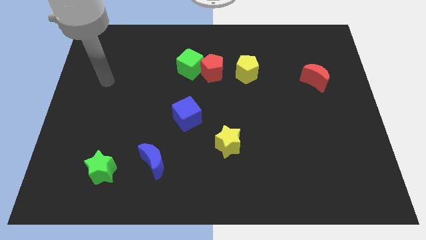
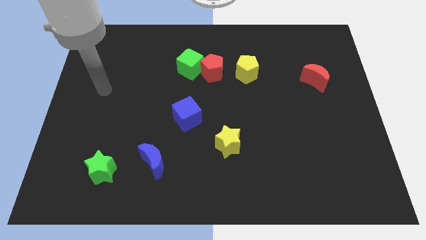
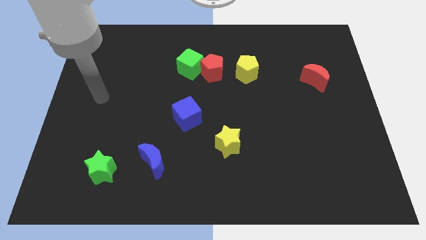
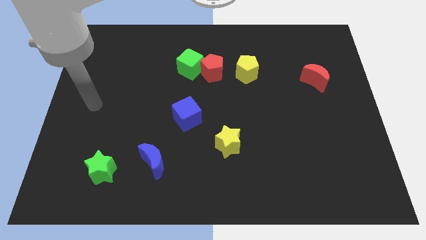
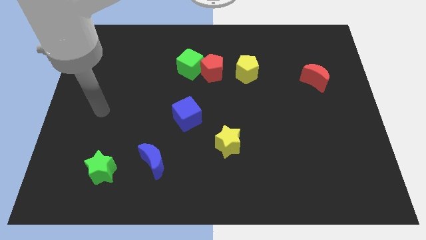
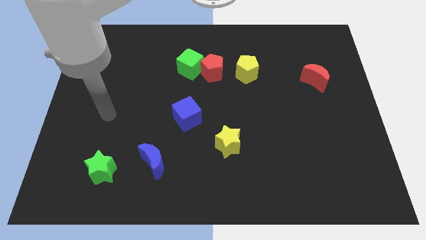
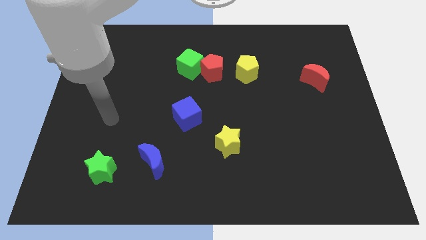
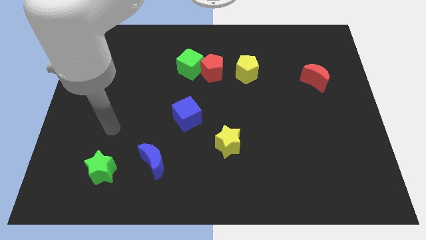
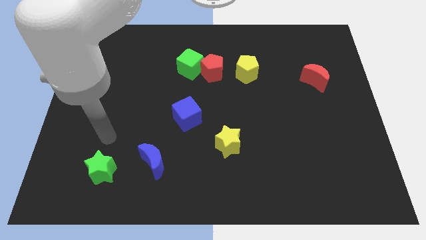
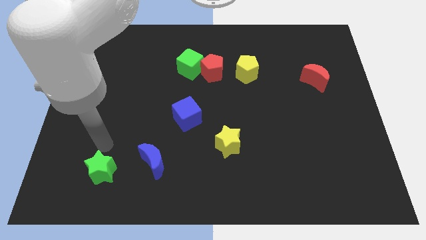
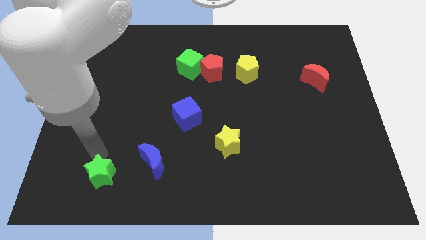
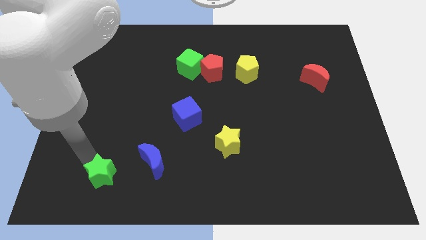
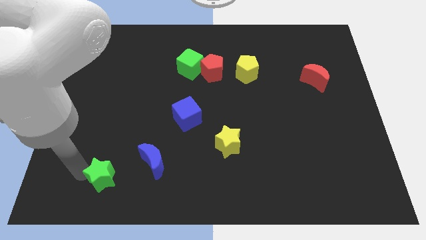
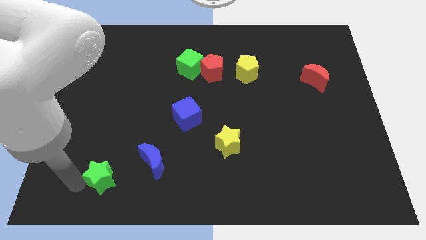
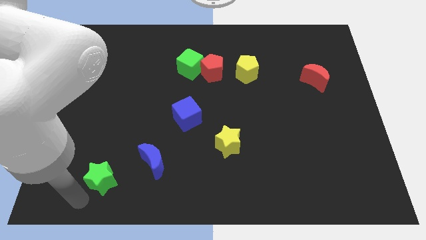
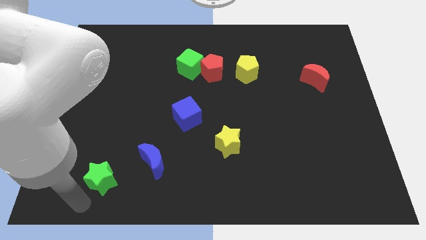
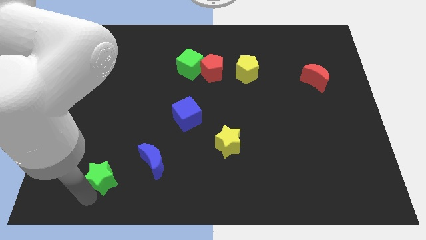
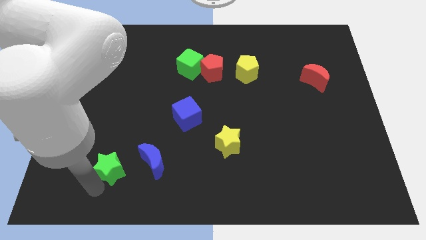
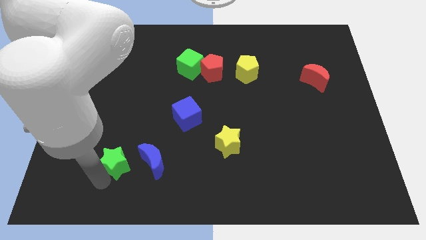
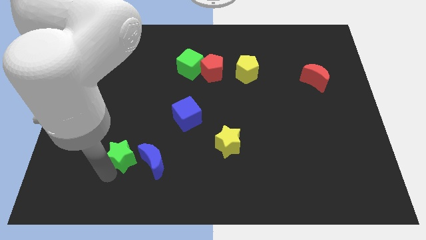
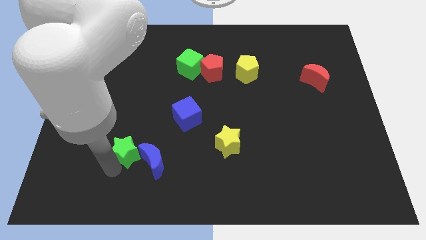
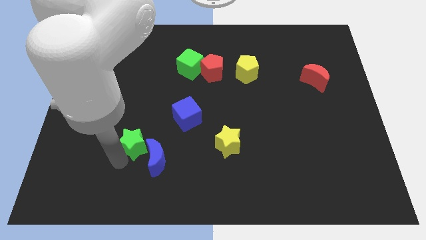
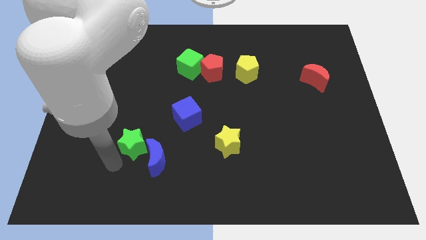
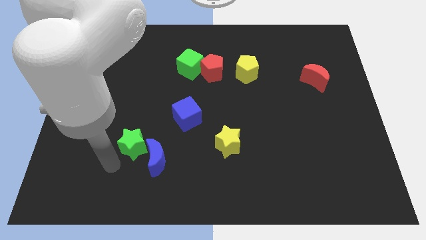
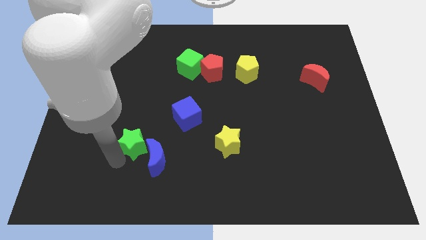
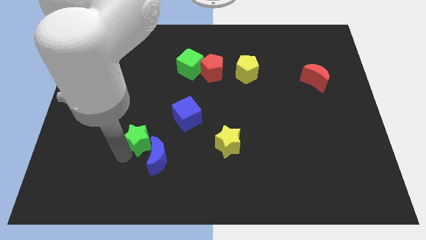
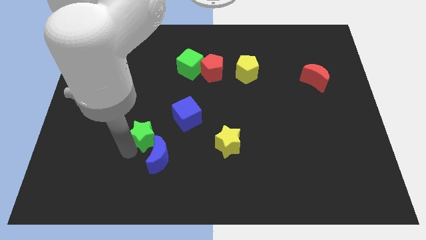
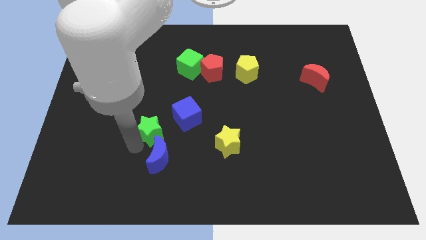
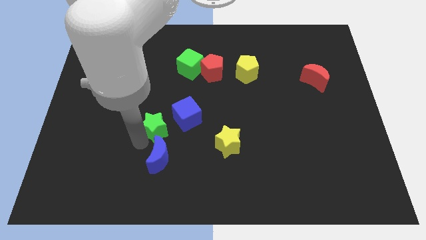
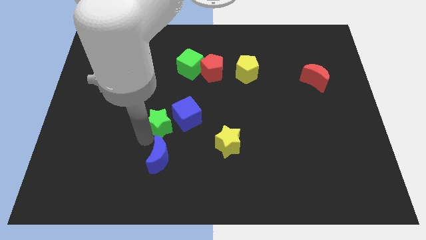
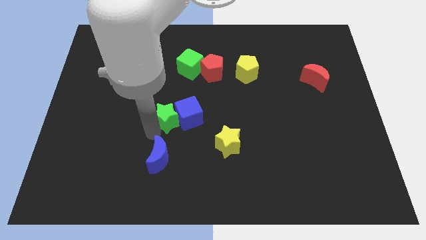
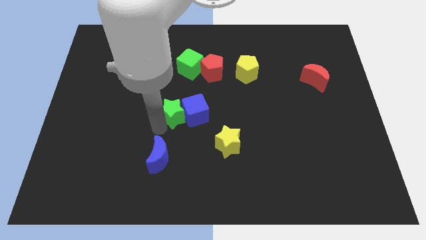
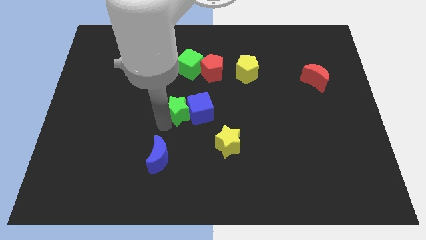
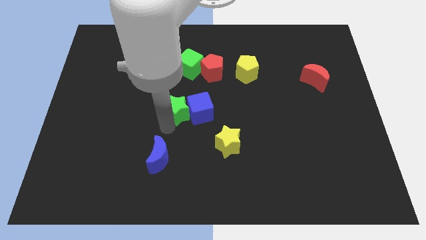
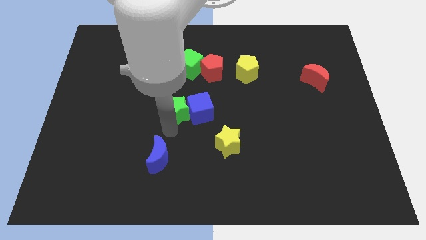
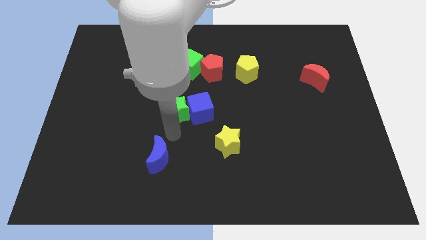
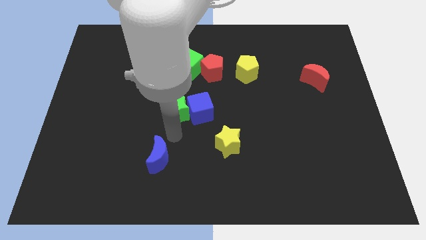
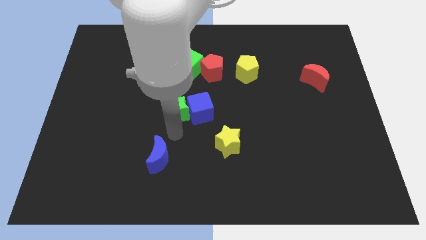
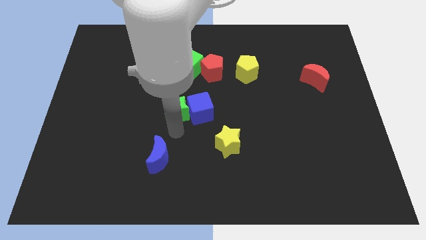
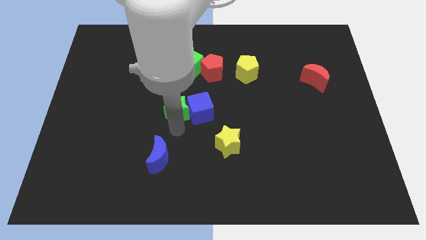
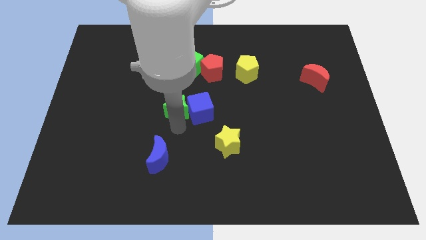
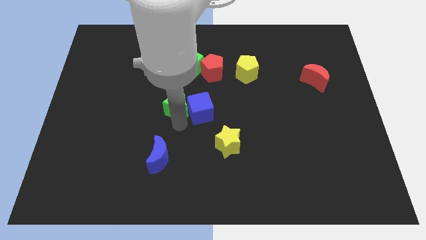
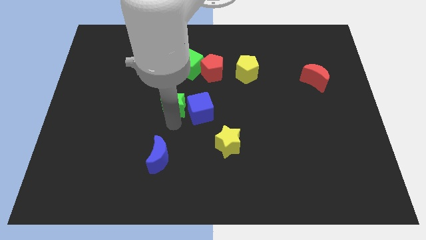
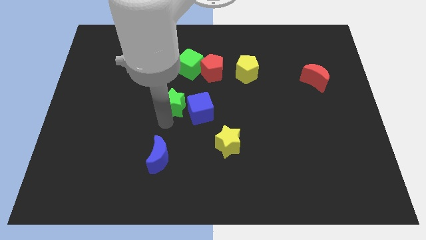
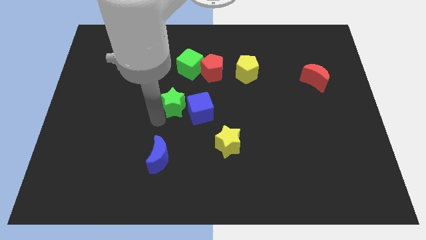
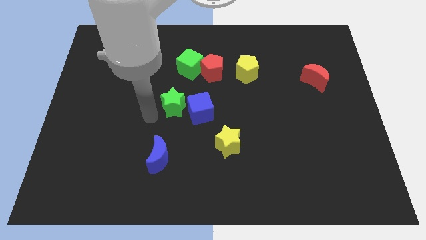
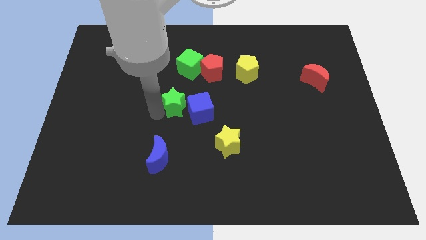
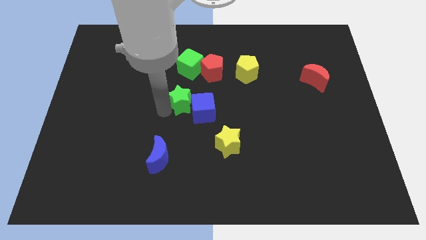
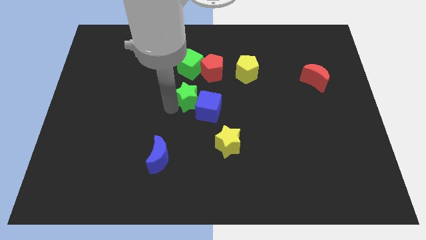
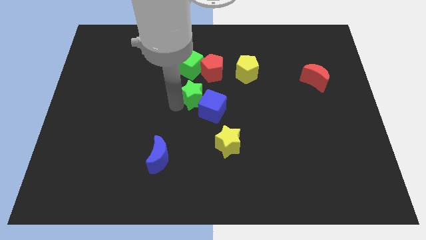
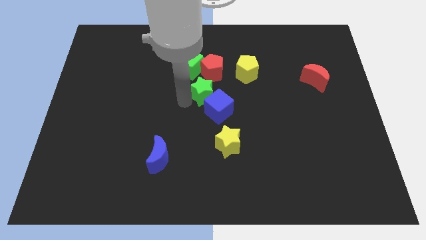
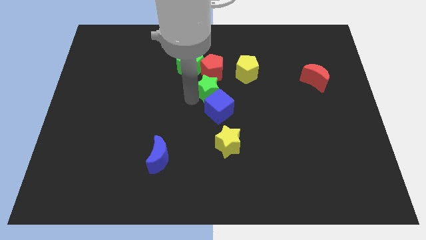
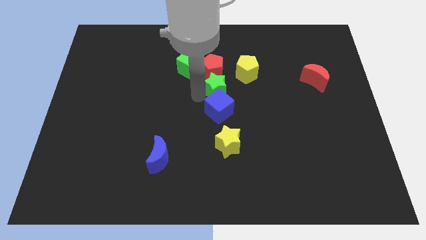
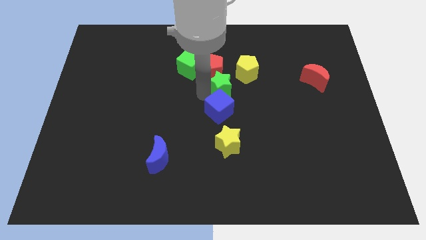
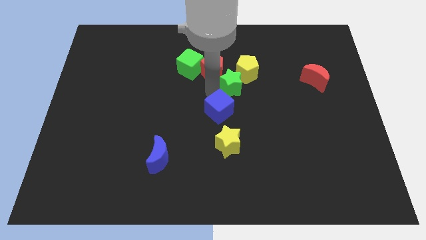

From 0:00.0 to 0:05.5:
move the green star towards the yellow pentagon

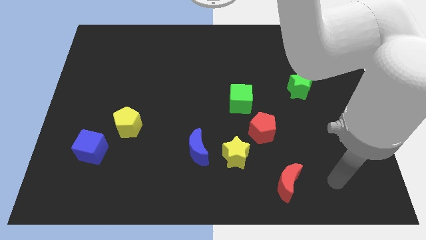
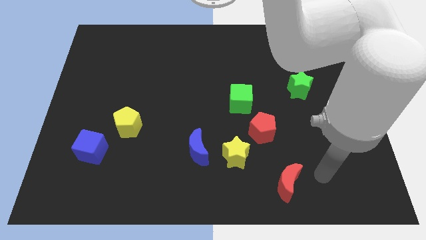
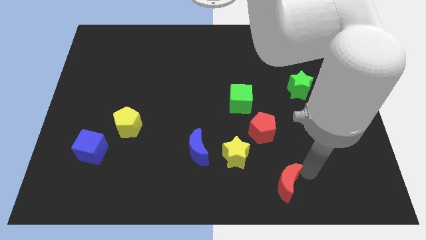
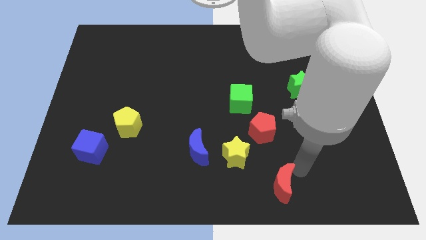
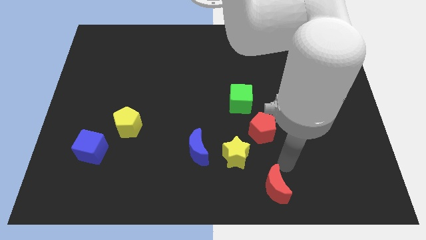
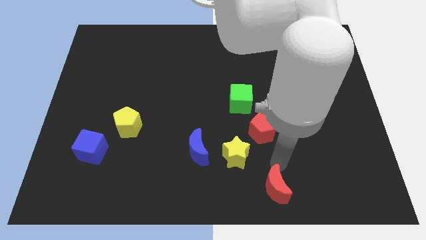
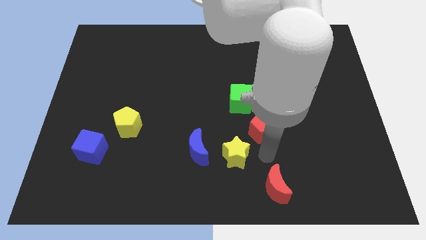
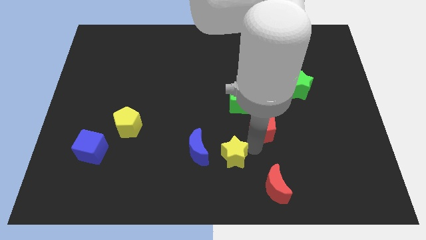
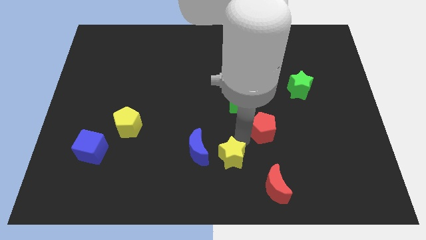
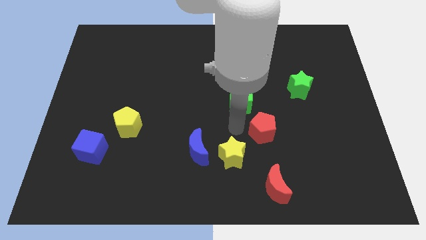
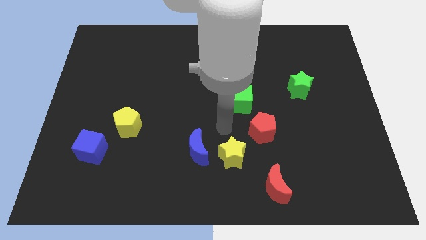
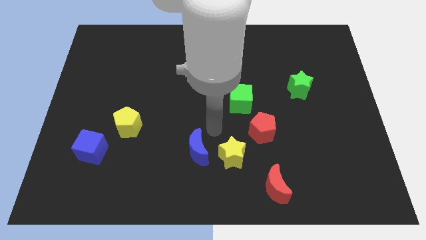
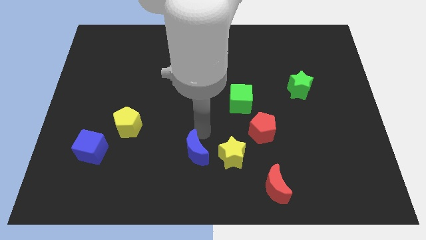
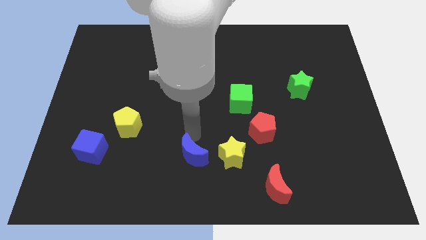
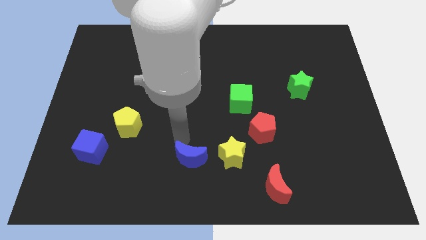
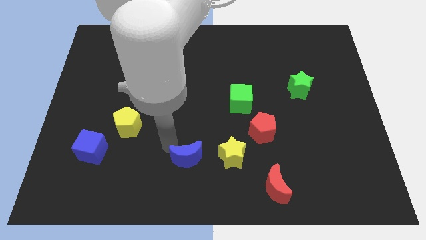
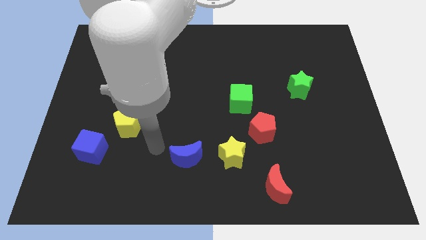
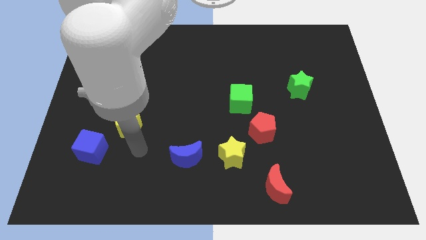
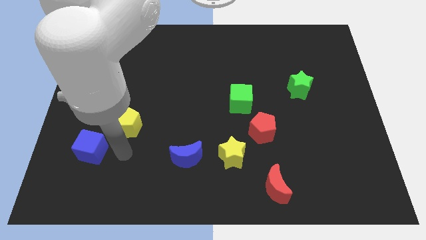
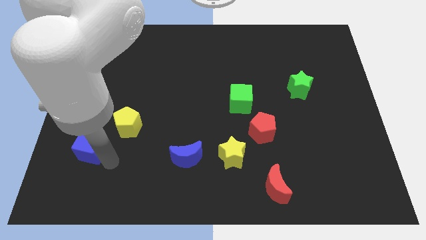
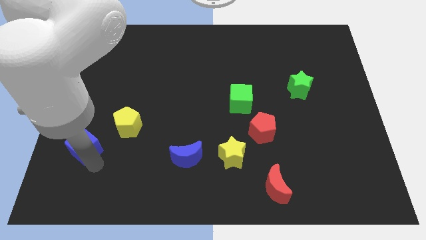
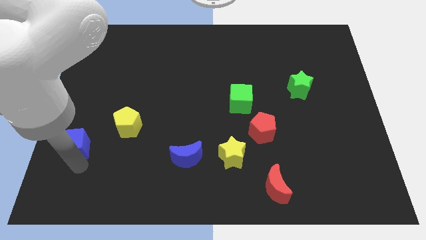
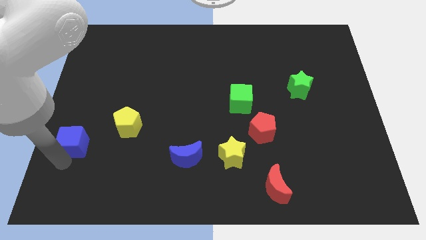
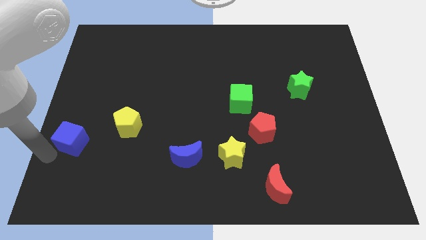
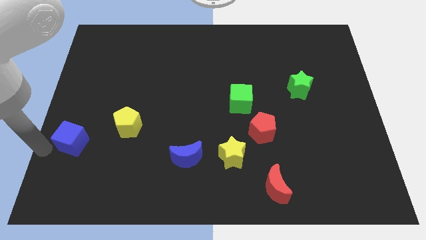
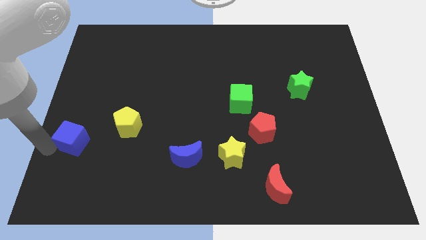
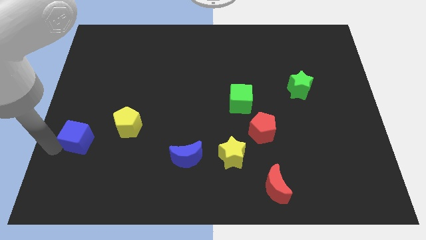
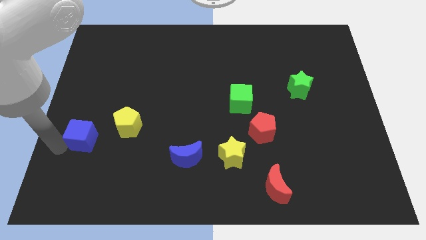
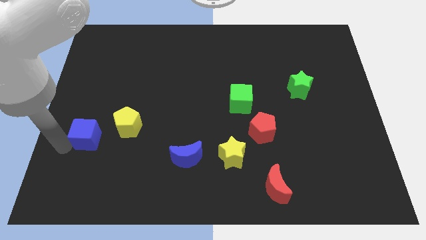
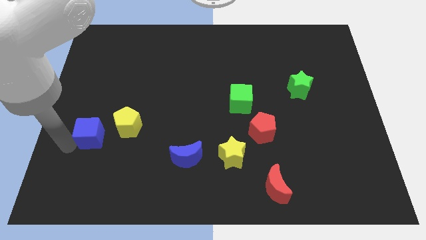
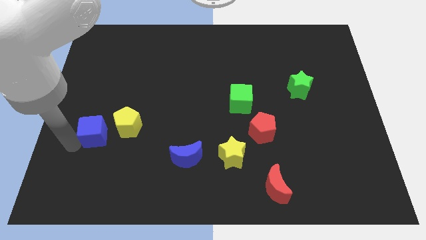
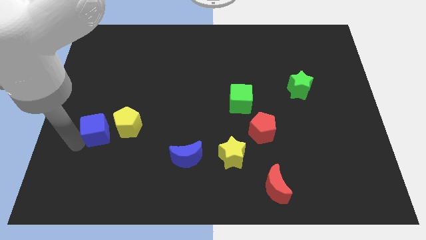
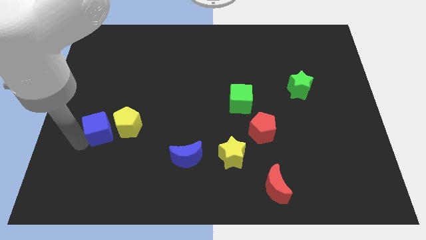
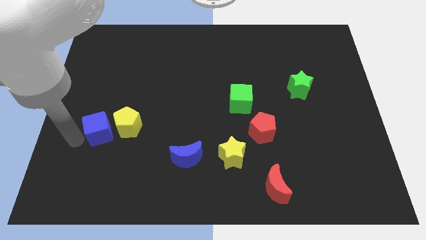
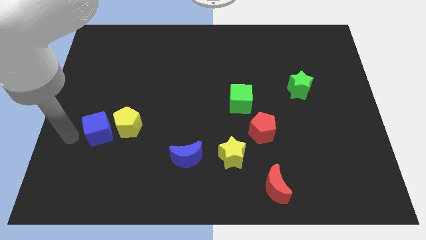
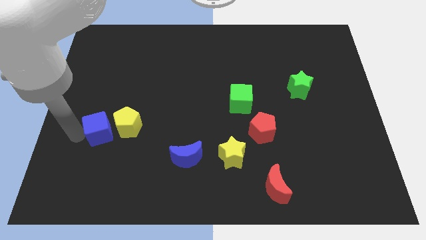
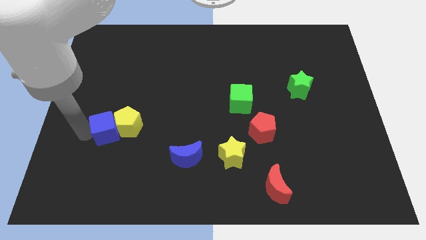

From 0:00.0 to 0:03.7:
push the blue cube towards the yellow pentagon
